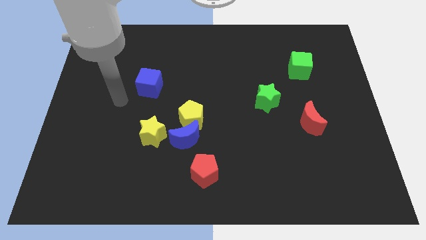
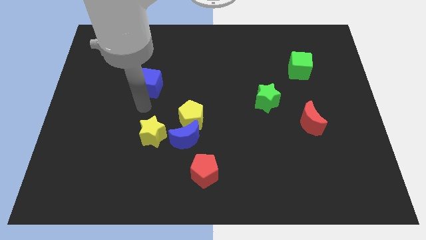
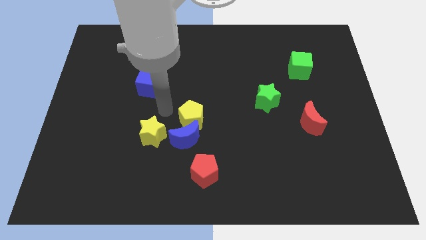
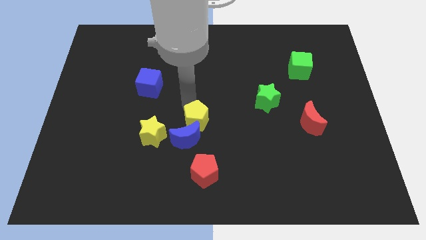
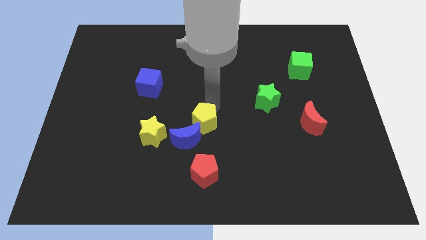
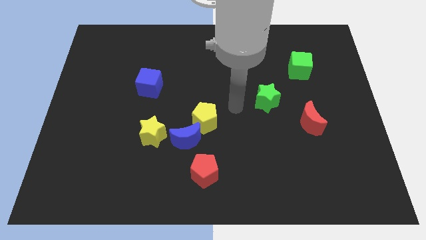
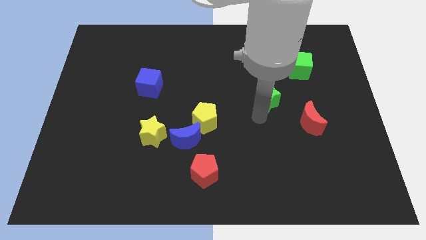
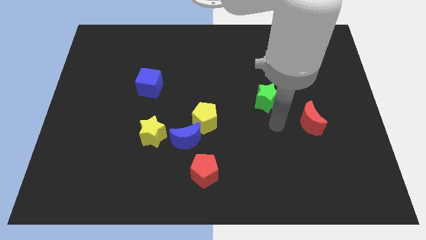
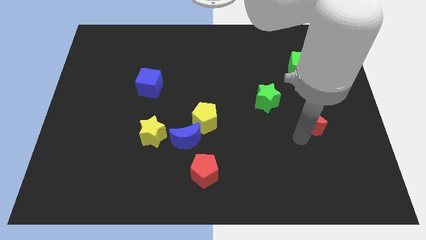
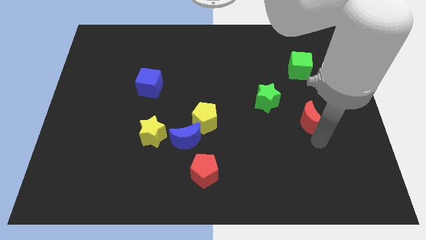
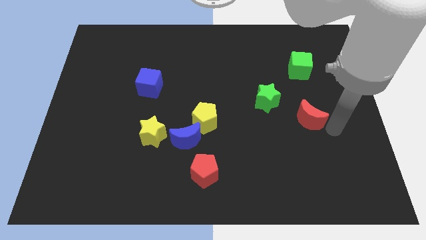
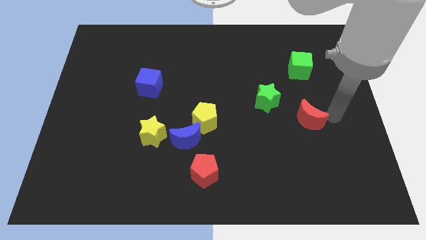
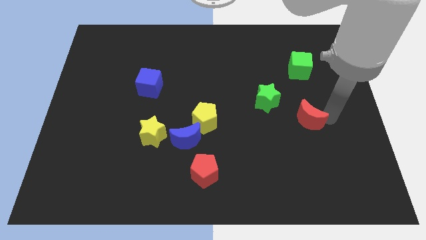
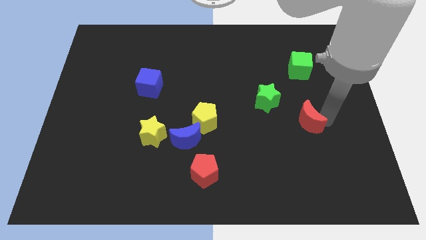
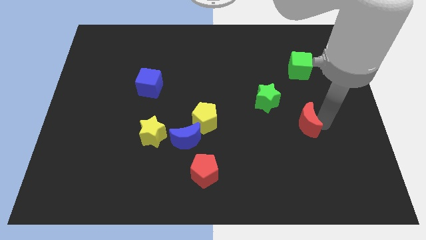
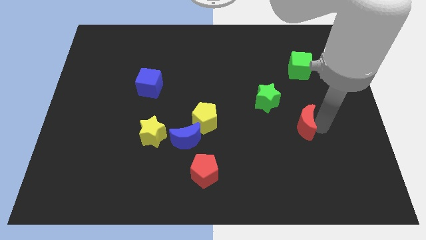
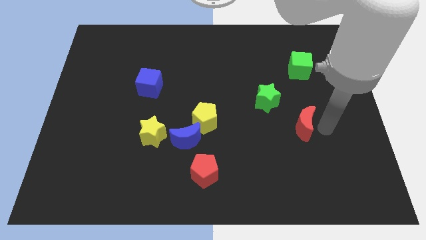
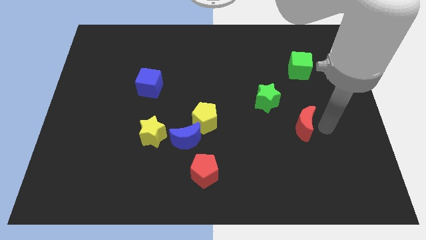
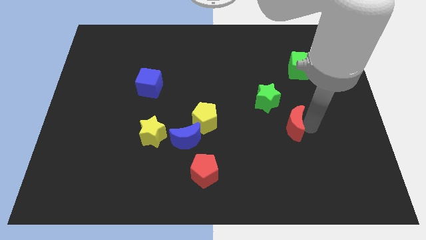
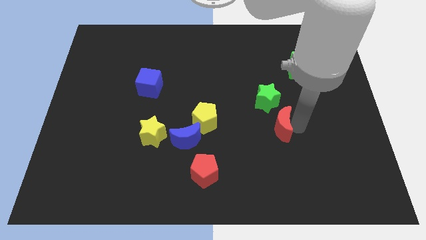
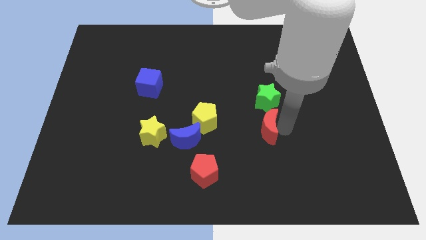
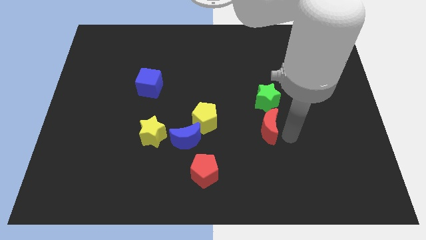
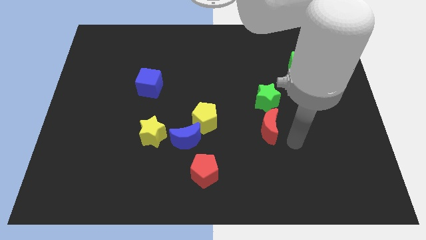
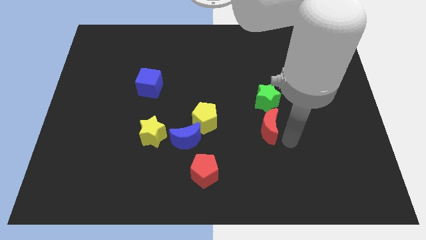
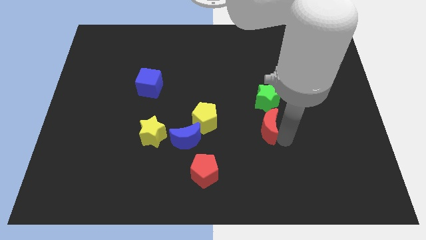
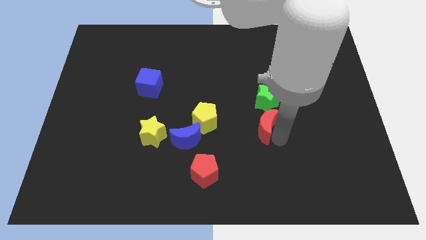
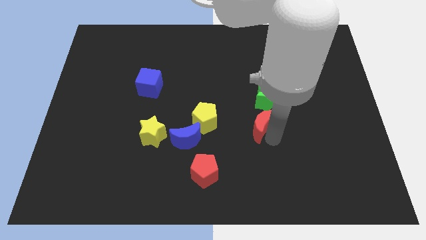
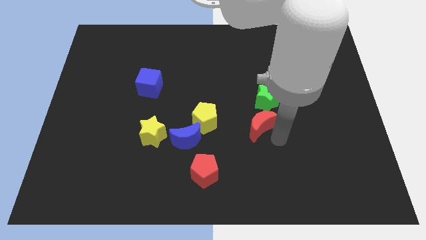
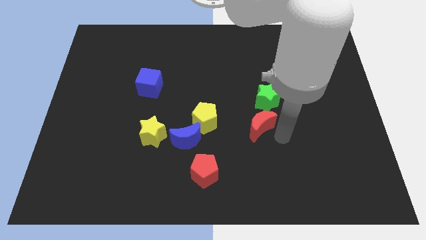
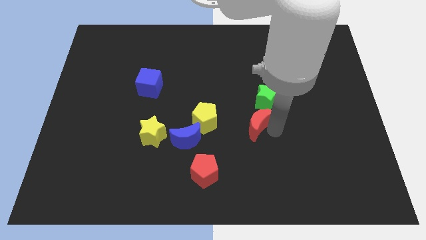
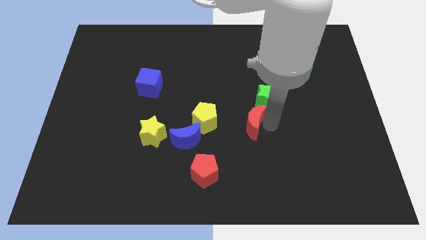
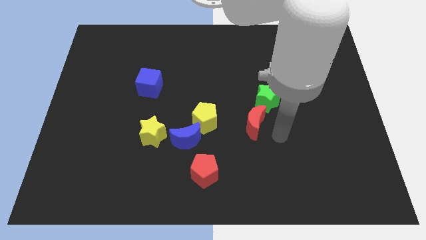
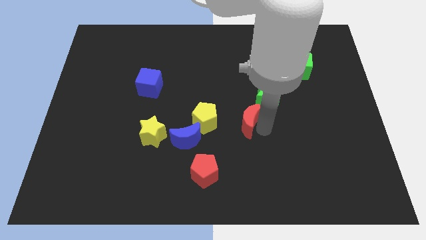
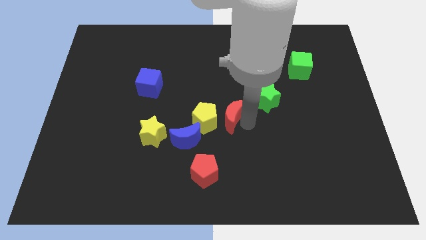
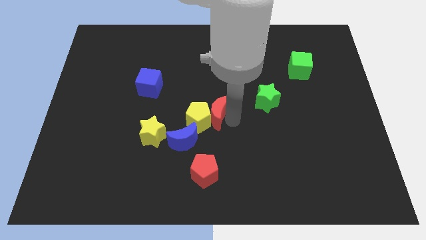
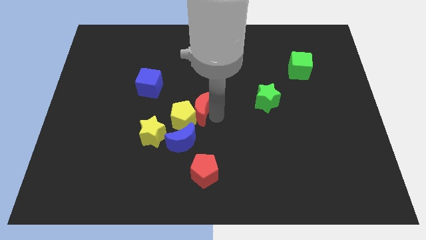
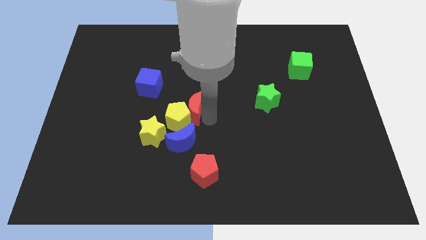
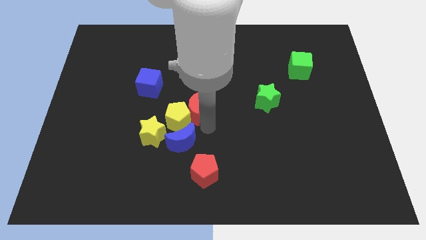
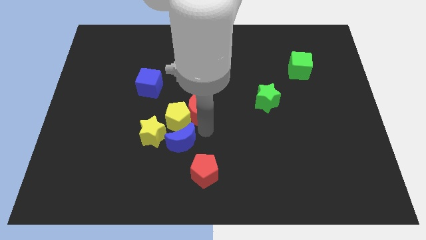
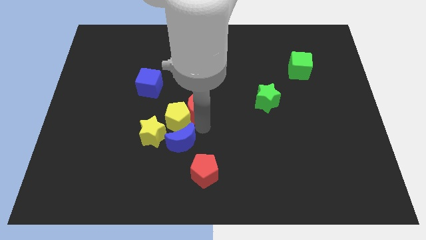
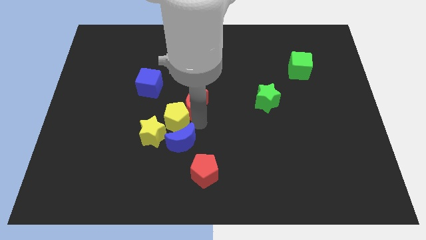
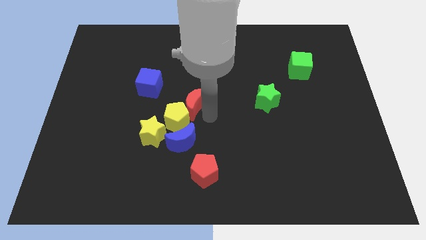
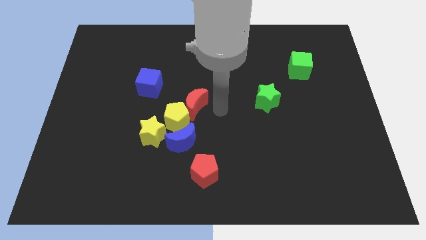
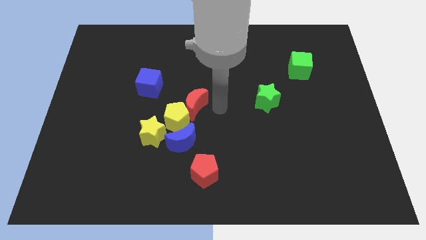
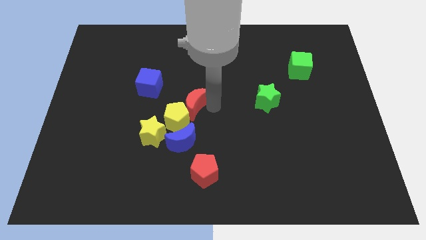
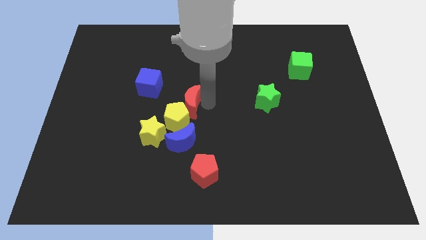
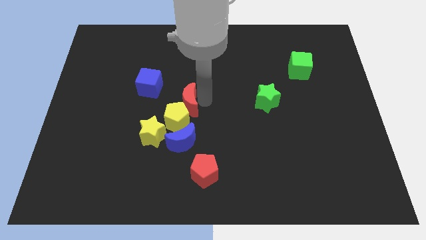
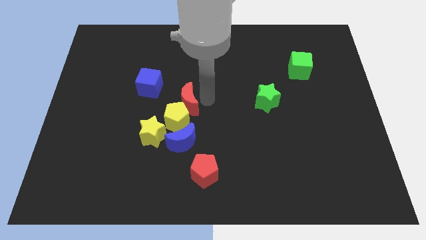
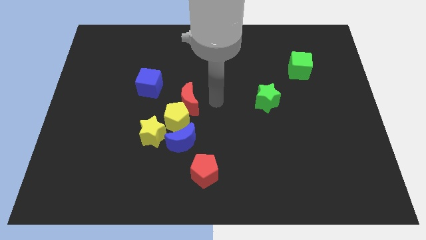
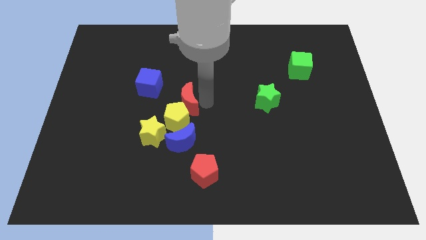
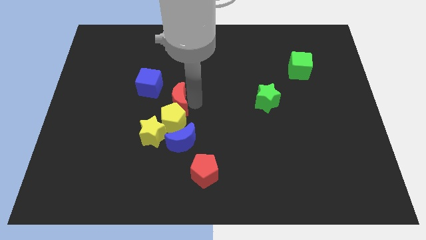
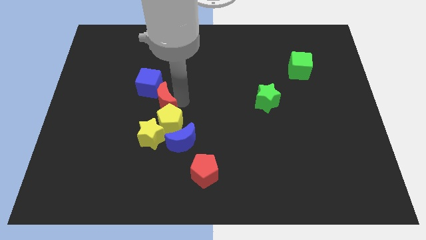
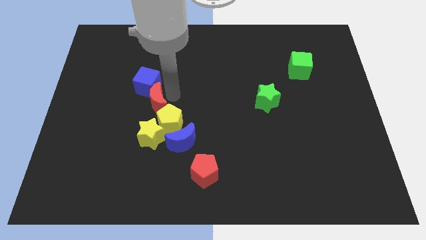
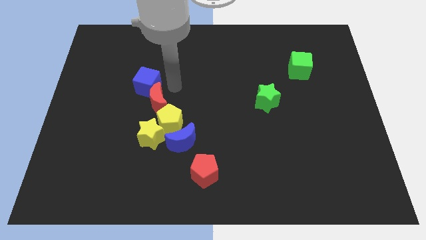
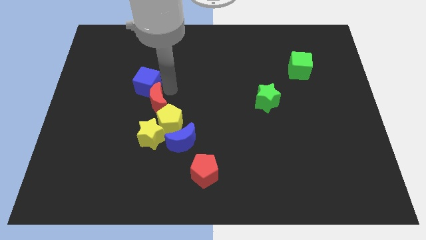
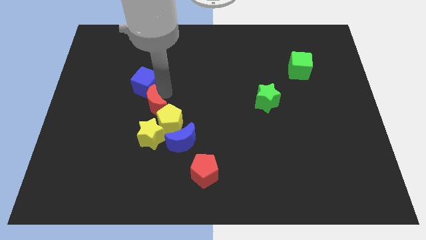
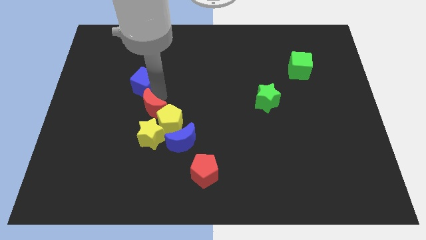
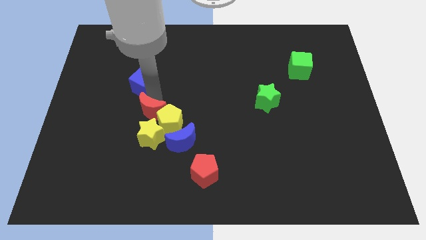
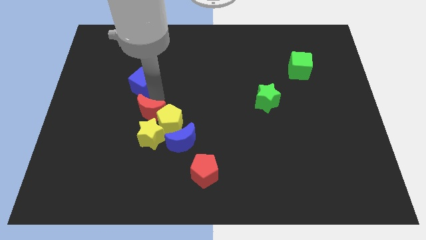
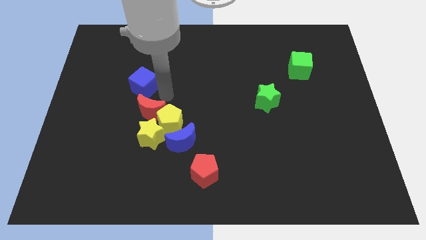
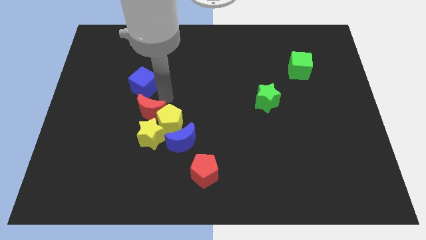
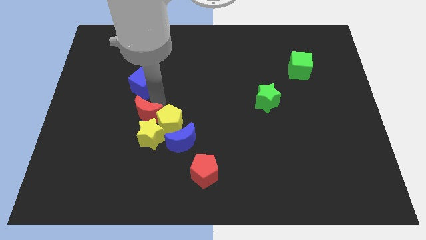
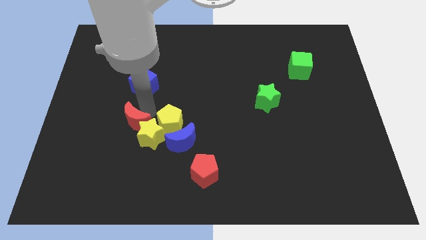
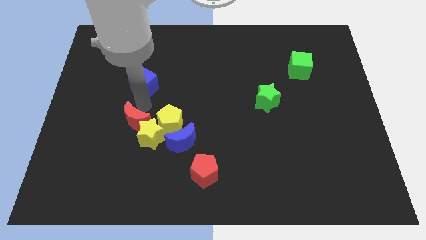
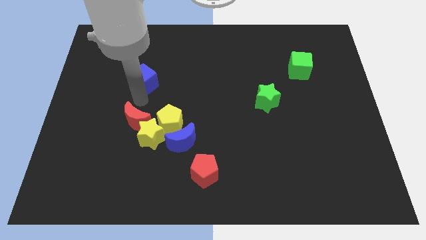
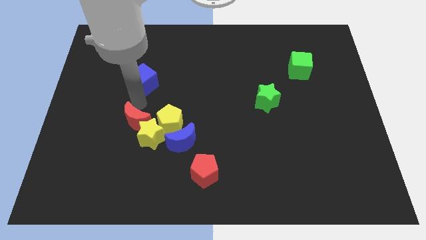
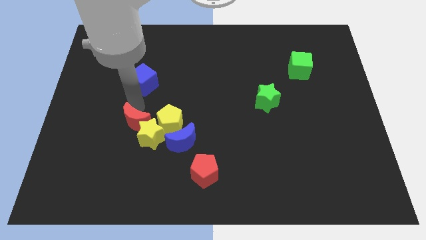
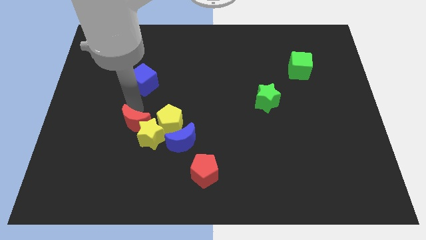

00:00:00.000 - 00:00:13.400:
slide the red moon left of the blue moon
